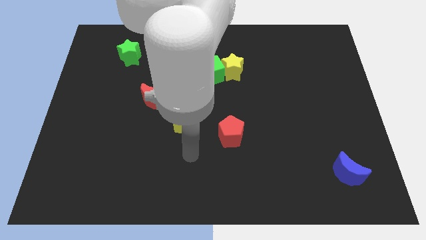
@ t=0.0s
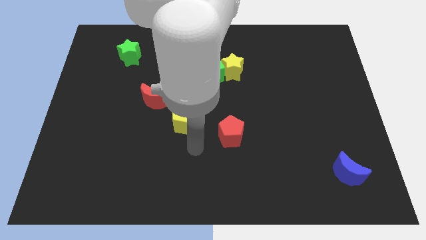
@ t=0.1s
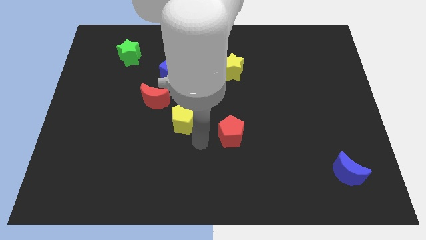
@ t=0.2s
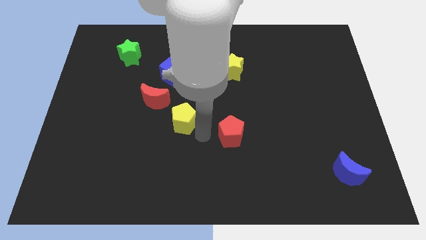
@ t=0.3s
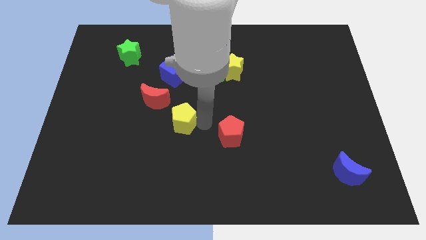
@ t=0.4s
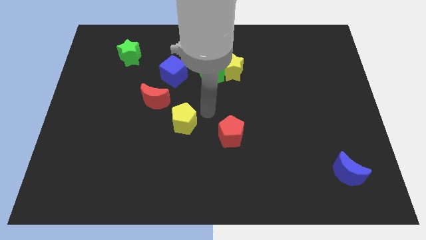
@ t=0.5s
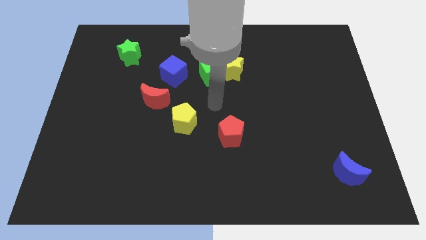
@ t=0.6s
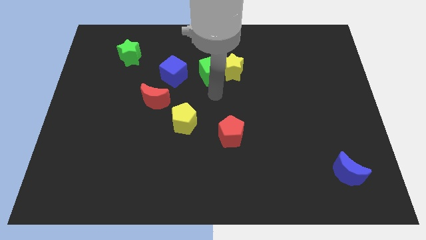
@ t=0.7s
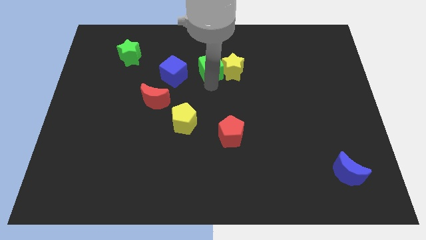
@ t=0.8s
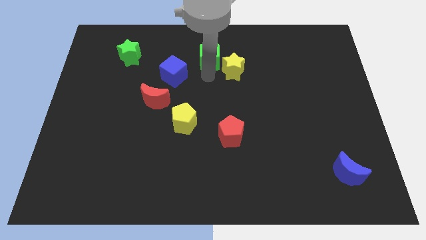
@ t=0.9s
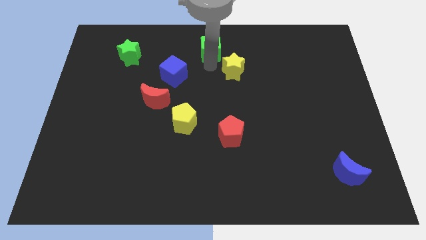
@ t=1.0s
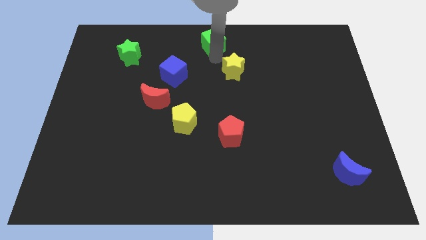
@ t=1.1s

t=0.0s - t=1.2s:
move the yellow star away from the green cube

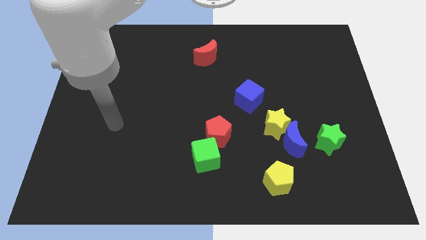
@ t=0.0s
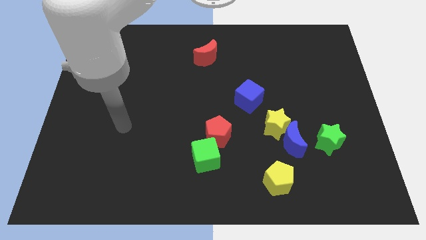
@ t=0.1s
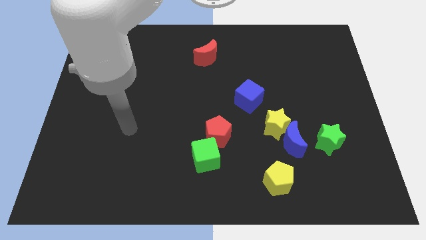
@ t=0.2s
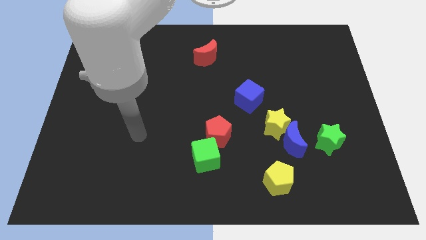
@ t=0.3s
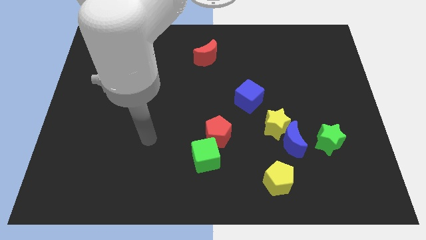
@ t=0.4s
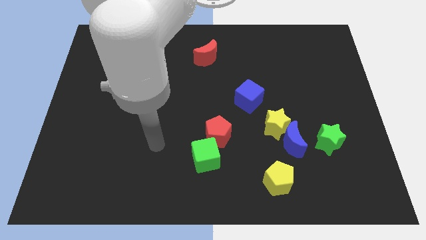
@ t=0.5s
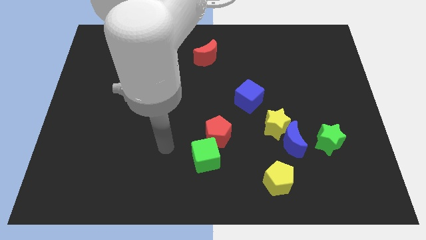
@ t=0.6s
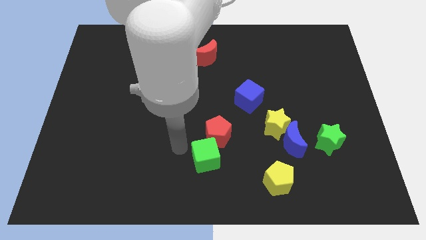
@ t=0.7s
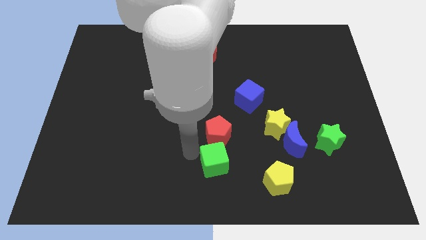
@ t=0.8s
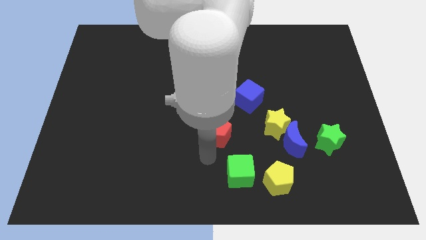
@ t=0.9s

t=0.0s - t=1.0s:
separate the red pentagon from the green cube

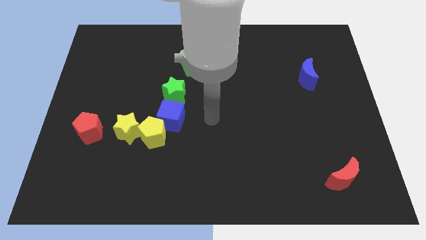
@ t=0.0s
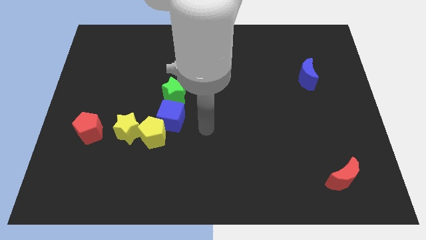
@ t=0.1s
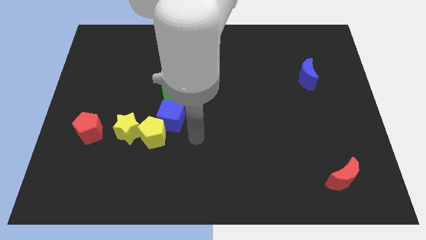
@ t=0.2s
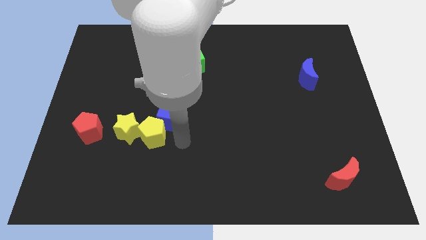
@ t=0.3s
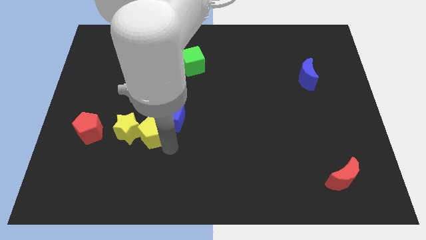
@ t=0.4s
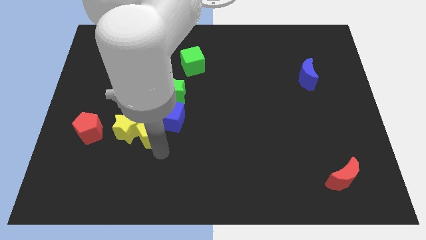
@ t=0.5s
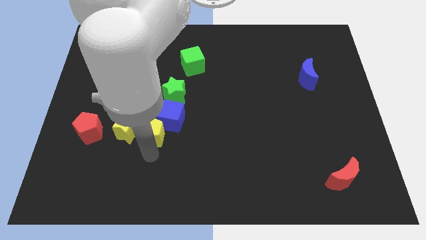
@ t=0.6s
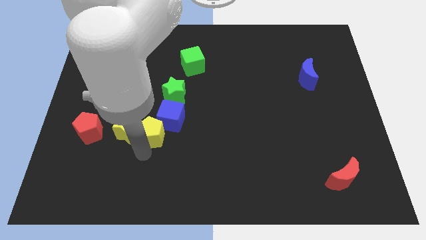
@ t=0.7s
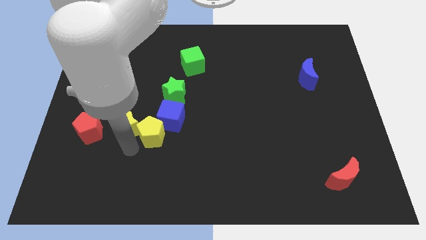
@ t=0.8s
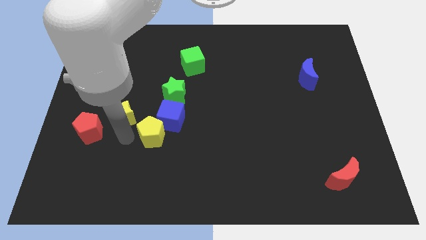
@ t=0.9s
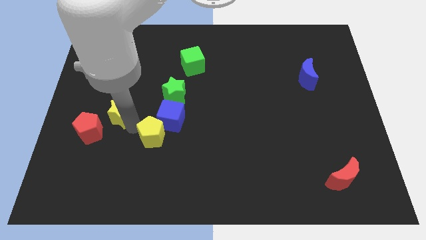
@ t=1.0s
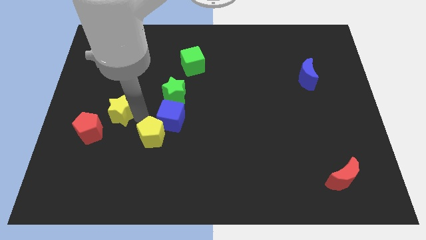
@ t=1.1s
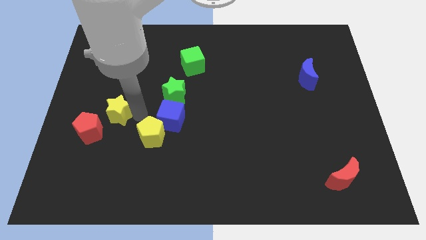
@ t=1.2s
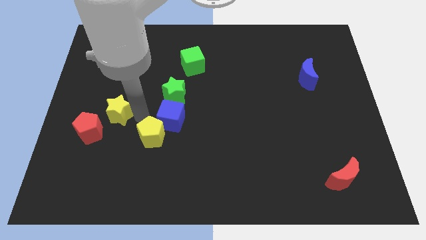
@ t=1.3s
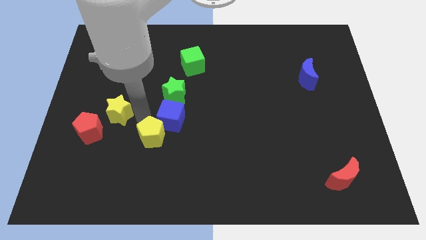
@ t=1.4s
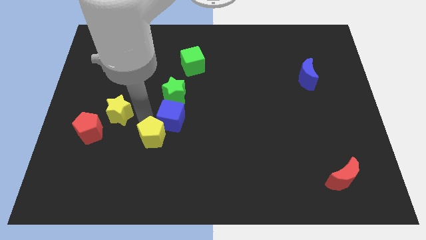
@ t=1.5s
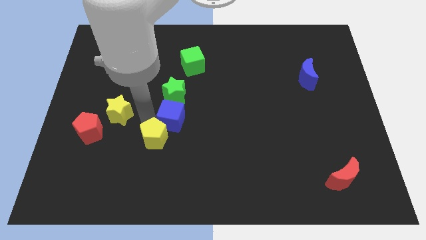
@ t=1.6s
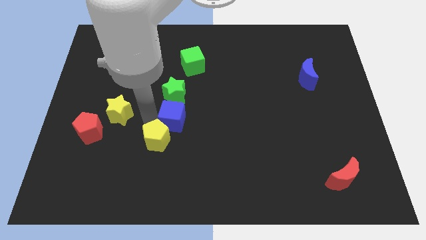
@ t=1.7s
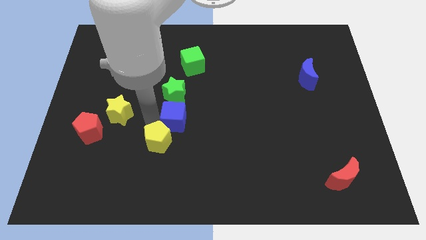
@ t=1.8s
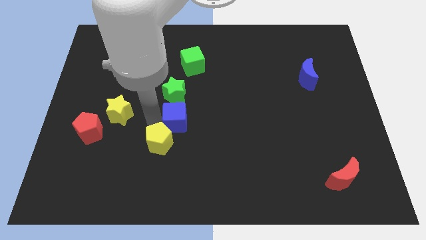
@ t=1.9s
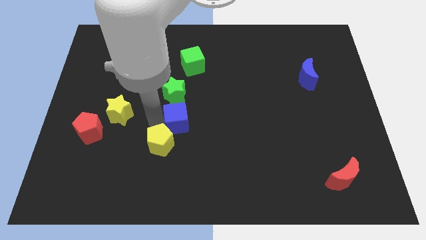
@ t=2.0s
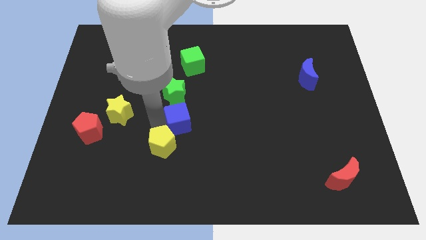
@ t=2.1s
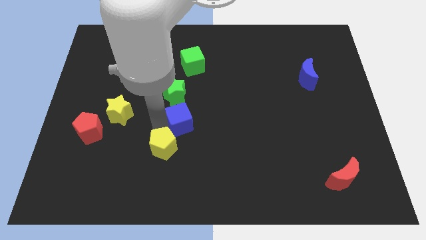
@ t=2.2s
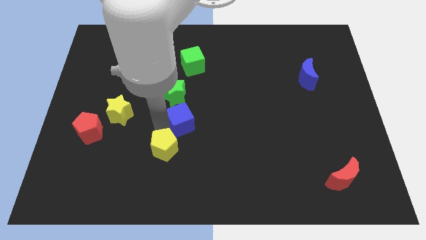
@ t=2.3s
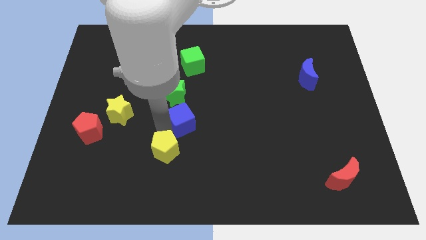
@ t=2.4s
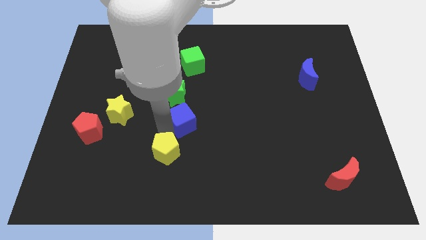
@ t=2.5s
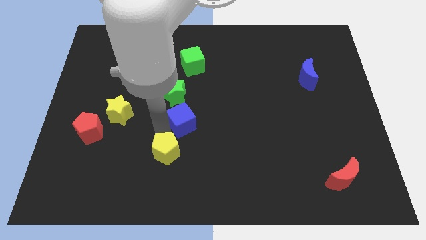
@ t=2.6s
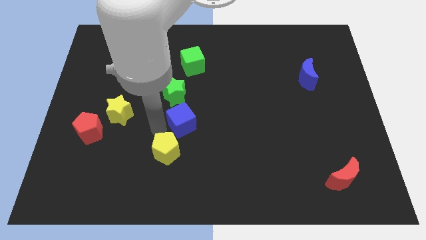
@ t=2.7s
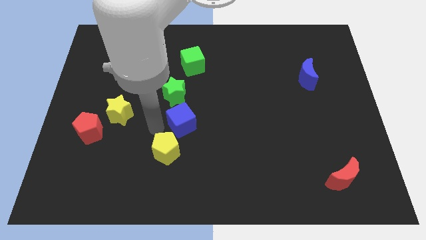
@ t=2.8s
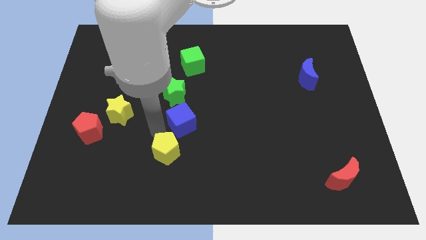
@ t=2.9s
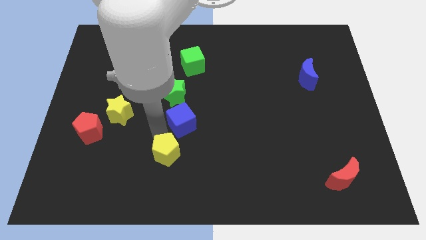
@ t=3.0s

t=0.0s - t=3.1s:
pull the yellow pentagon apart from the blue cube and yellow star

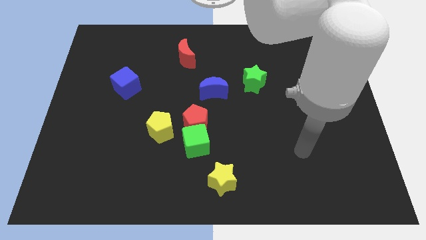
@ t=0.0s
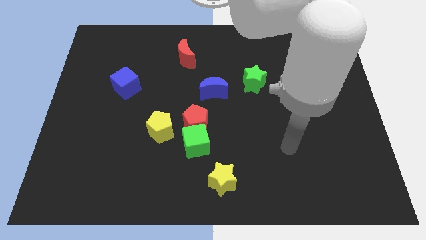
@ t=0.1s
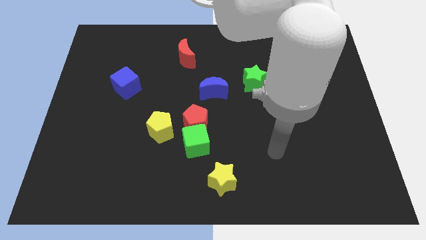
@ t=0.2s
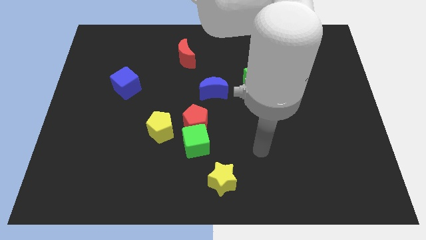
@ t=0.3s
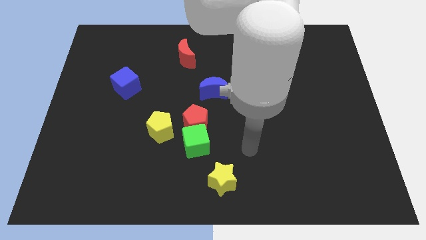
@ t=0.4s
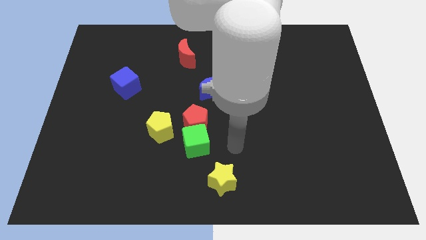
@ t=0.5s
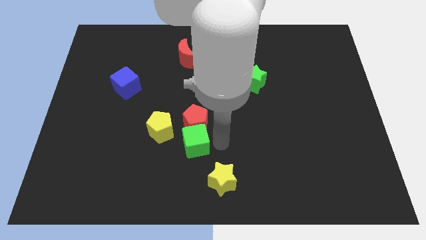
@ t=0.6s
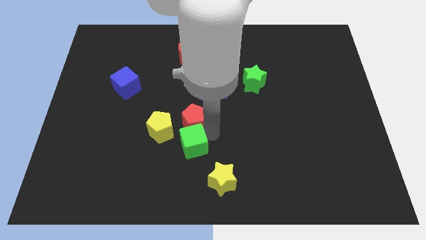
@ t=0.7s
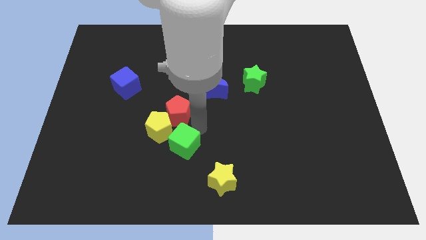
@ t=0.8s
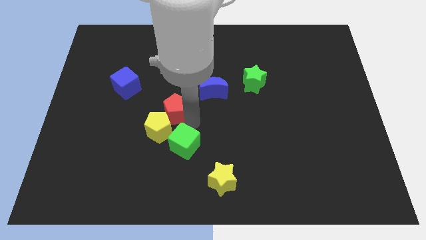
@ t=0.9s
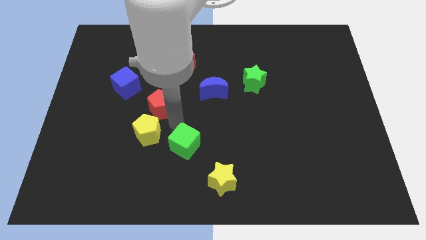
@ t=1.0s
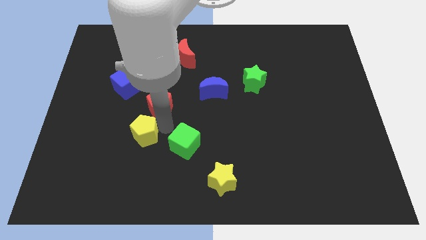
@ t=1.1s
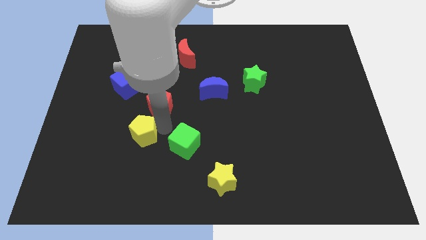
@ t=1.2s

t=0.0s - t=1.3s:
move the green cube away from the red pentagon and yellow pentagon

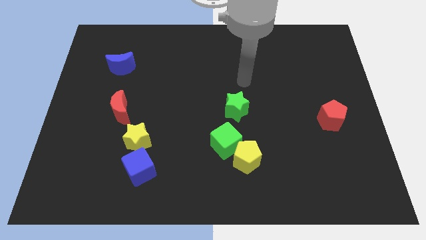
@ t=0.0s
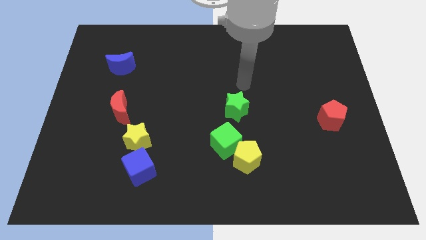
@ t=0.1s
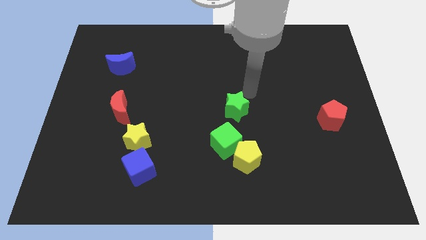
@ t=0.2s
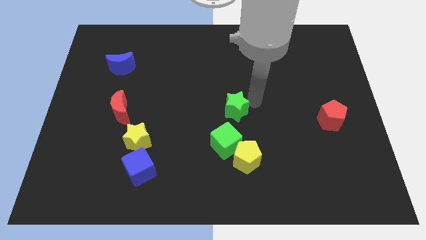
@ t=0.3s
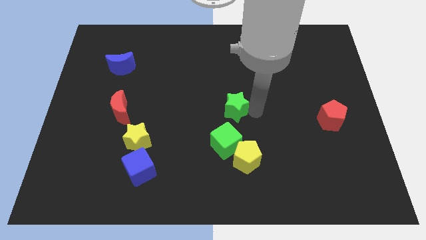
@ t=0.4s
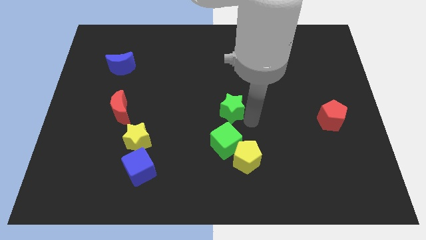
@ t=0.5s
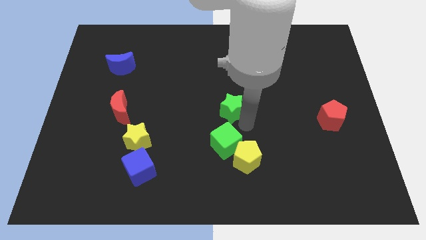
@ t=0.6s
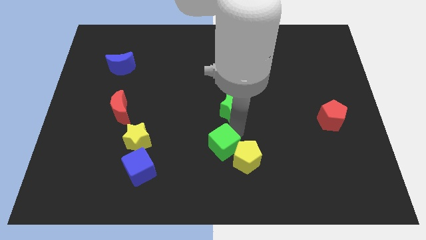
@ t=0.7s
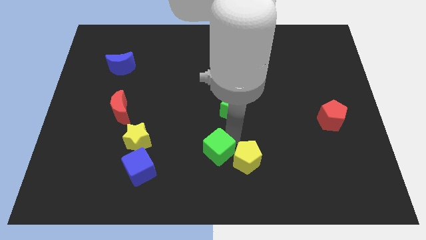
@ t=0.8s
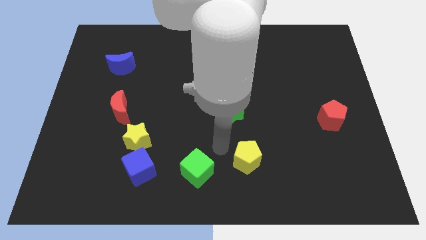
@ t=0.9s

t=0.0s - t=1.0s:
pull the yellow pentagon apart from the green cube

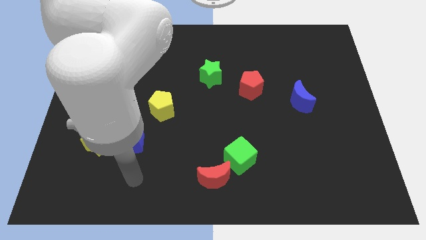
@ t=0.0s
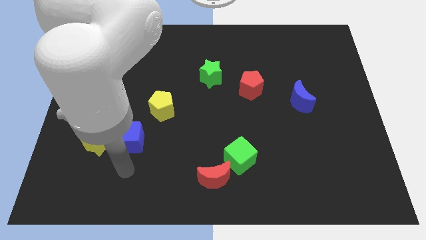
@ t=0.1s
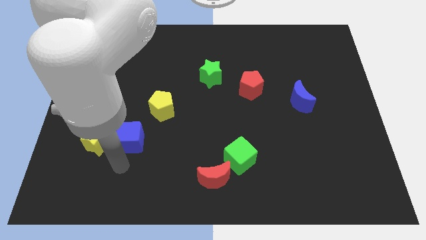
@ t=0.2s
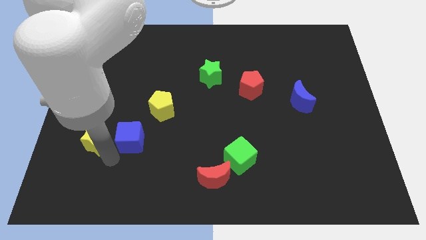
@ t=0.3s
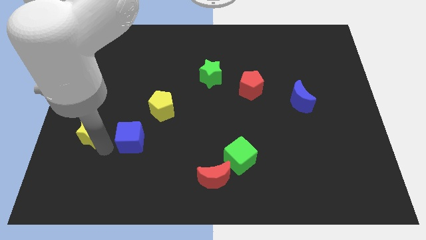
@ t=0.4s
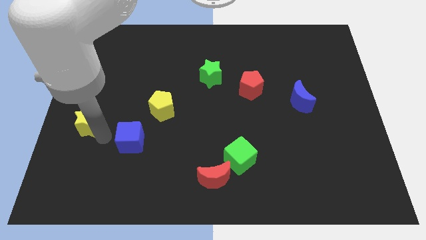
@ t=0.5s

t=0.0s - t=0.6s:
move the blue cube away from the yellow star

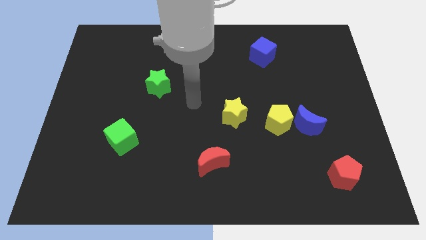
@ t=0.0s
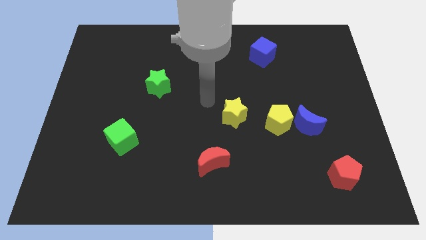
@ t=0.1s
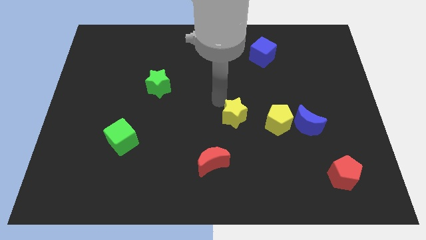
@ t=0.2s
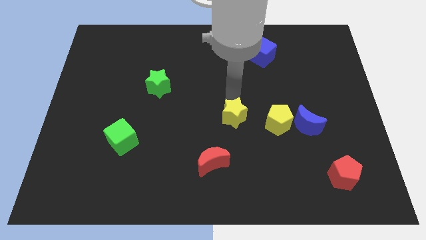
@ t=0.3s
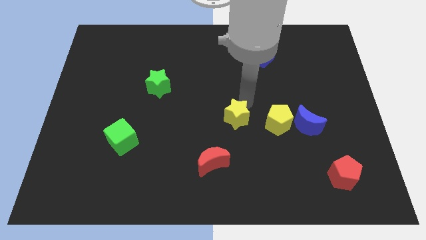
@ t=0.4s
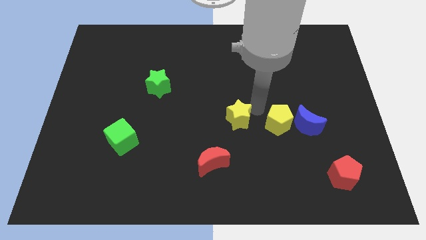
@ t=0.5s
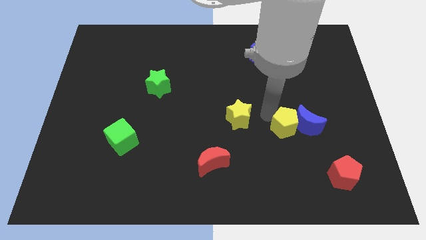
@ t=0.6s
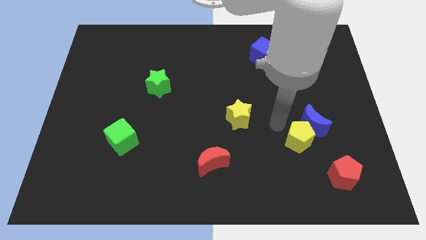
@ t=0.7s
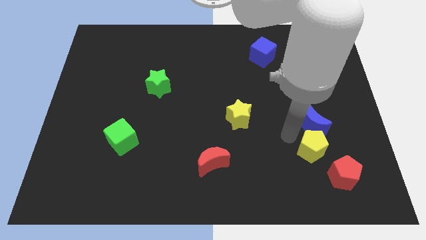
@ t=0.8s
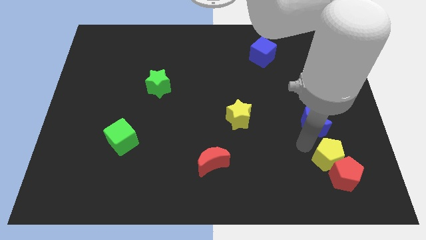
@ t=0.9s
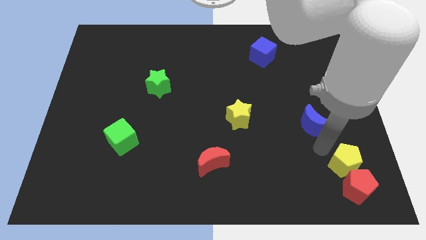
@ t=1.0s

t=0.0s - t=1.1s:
pull the blue moon apart from the yellow pentagon

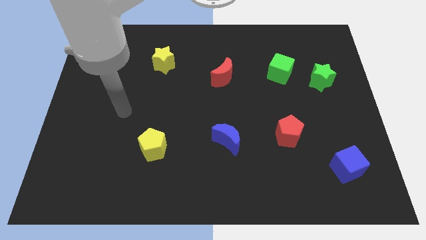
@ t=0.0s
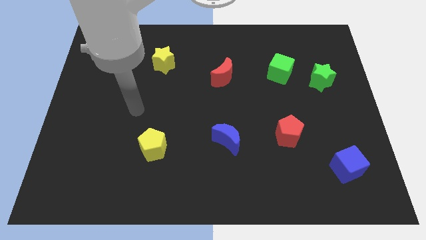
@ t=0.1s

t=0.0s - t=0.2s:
move the green cube away from the green star
